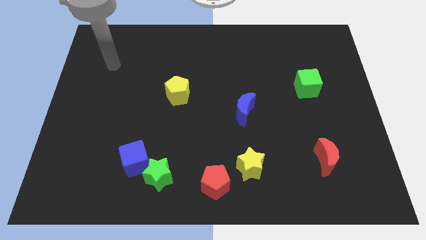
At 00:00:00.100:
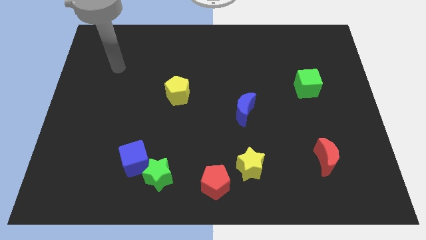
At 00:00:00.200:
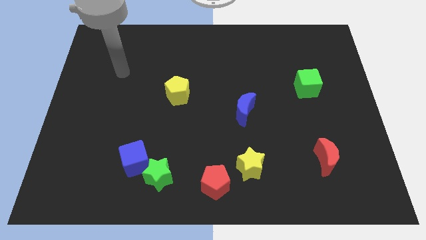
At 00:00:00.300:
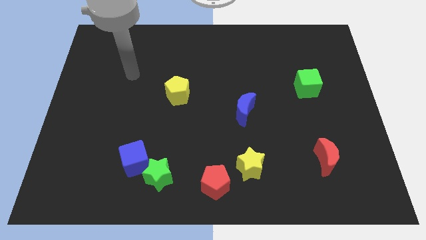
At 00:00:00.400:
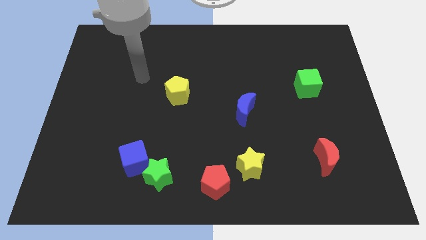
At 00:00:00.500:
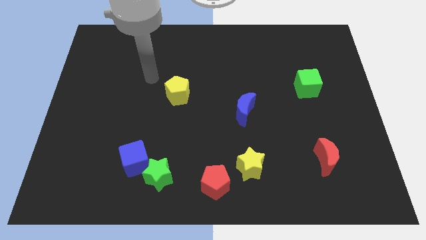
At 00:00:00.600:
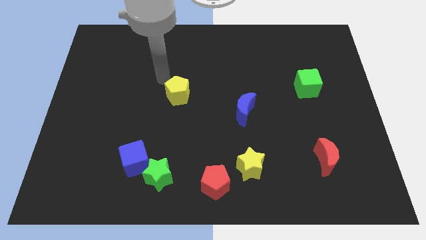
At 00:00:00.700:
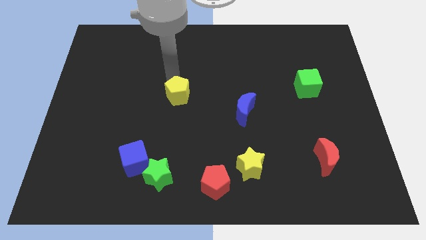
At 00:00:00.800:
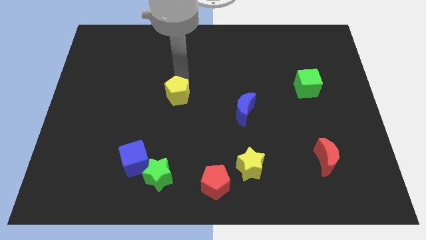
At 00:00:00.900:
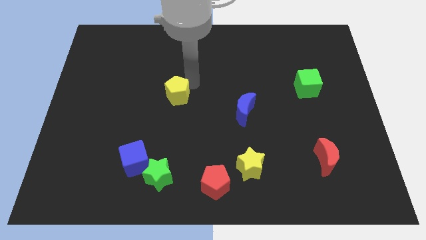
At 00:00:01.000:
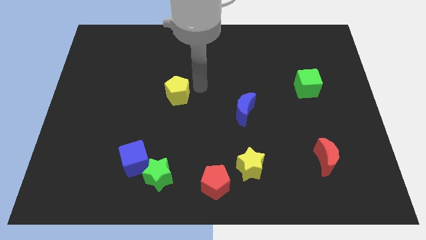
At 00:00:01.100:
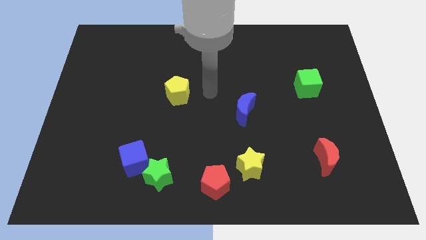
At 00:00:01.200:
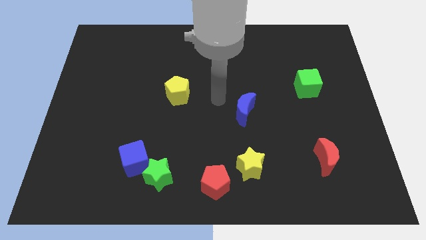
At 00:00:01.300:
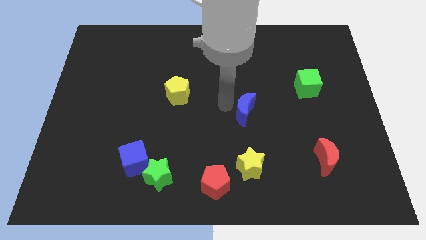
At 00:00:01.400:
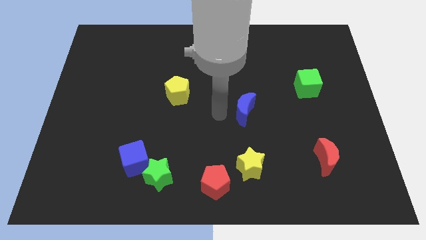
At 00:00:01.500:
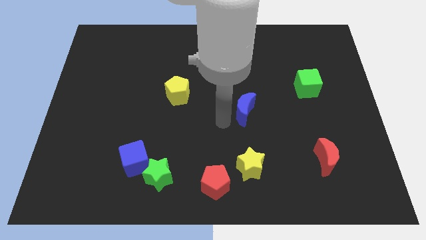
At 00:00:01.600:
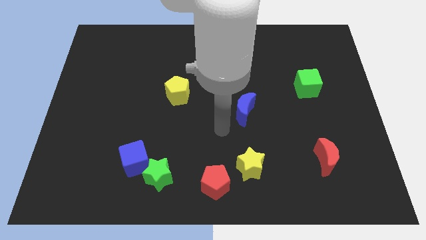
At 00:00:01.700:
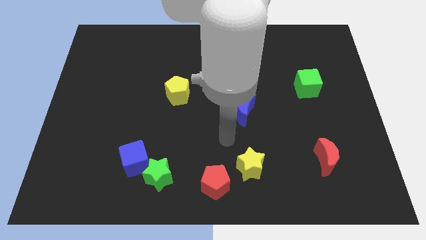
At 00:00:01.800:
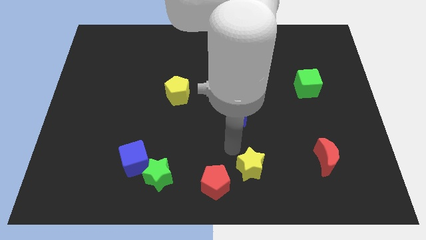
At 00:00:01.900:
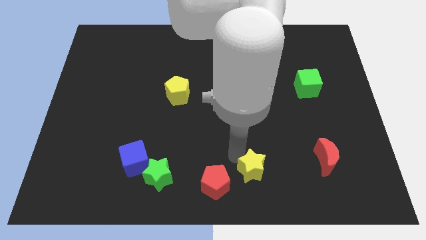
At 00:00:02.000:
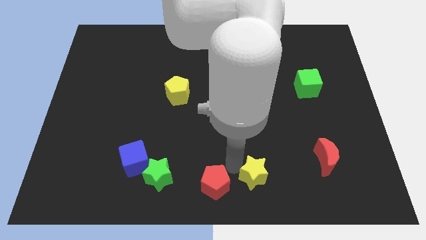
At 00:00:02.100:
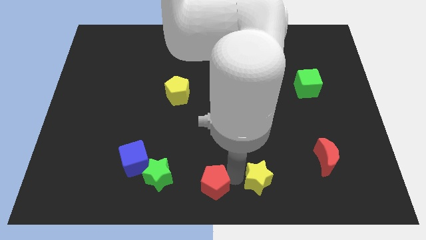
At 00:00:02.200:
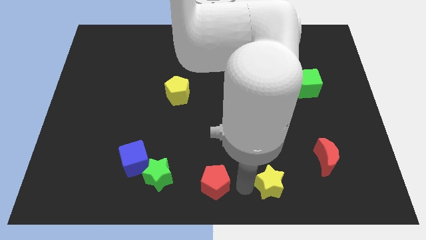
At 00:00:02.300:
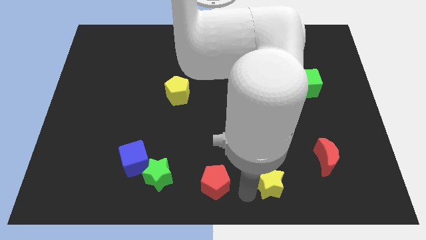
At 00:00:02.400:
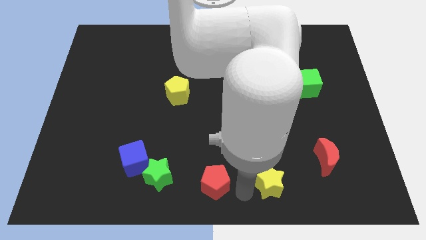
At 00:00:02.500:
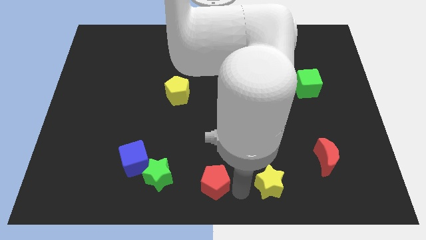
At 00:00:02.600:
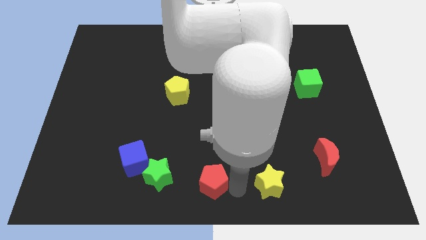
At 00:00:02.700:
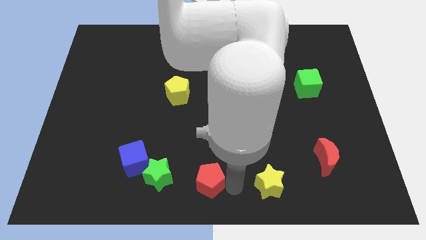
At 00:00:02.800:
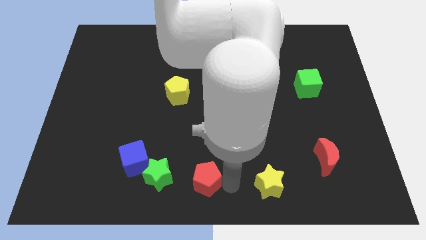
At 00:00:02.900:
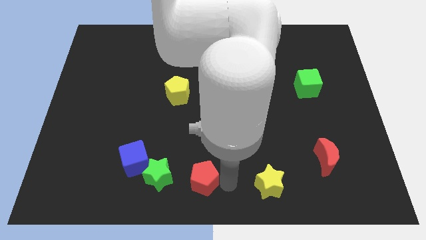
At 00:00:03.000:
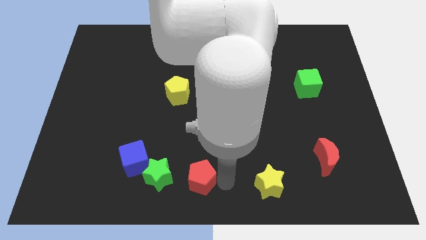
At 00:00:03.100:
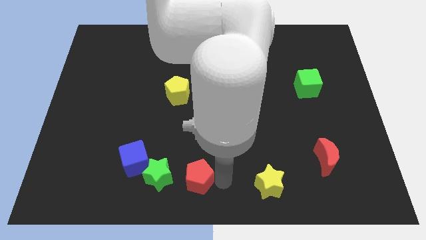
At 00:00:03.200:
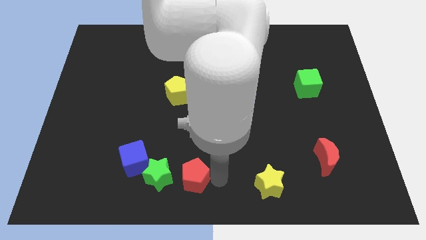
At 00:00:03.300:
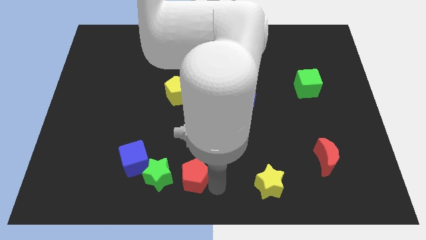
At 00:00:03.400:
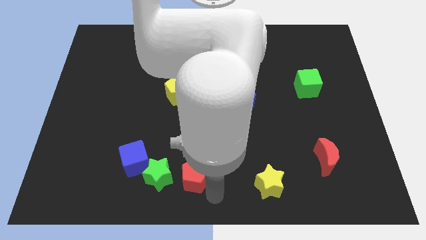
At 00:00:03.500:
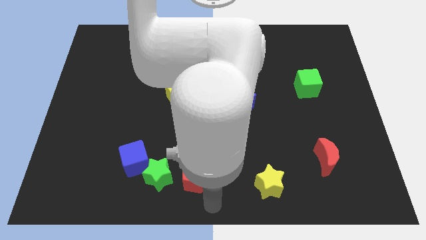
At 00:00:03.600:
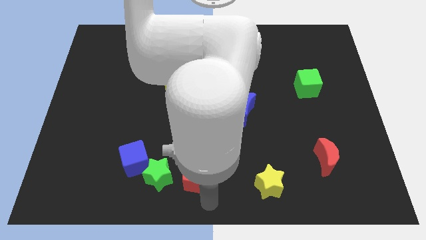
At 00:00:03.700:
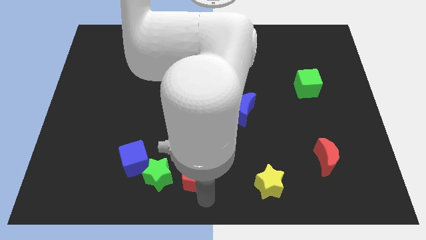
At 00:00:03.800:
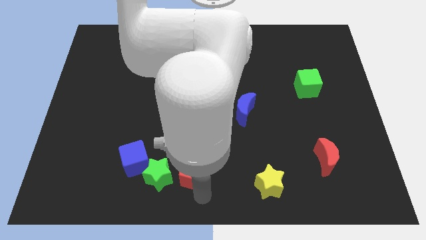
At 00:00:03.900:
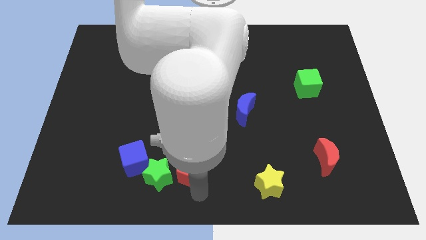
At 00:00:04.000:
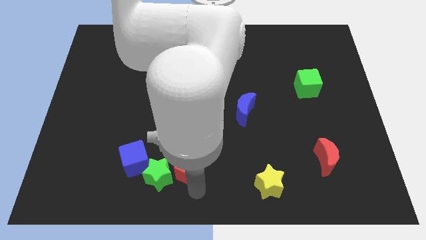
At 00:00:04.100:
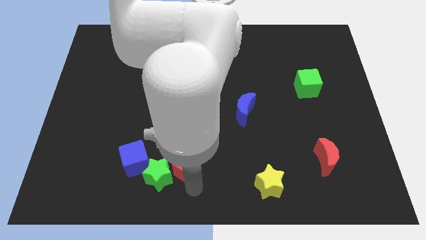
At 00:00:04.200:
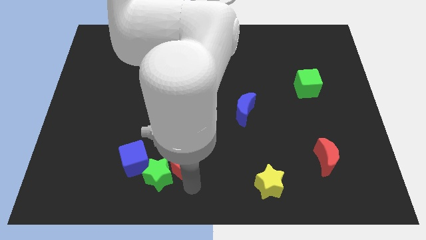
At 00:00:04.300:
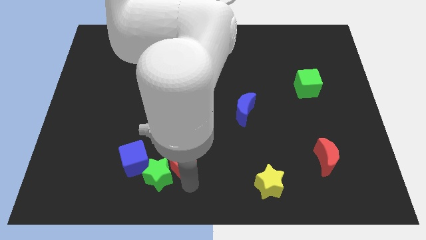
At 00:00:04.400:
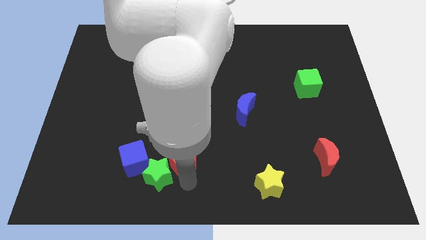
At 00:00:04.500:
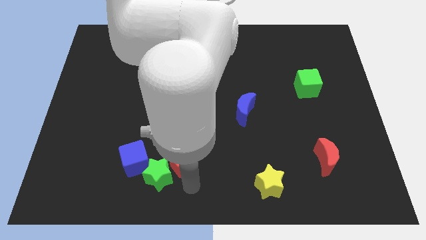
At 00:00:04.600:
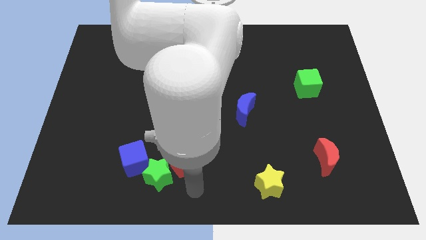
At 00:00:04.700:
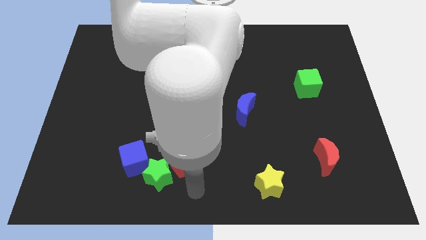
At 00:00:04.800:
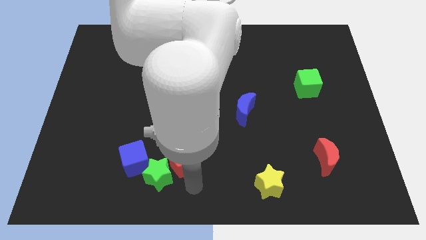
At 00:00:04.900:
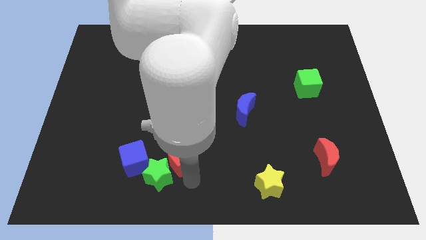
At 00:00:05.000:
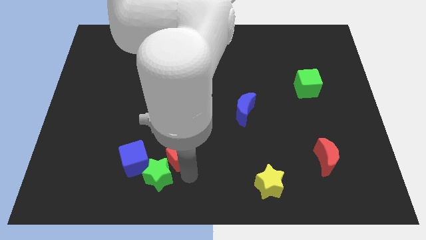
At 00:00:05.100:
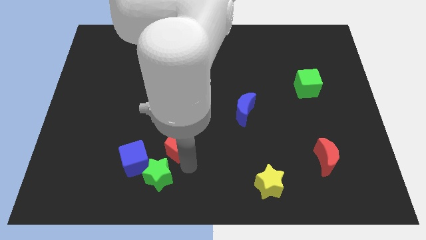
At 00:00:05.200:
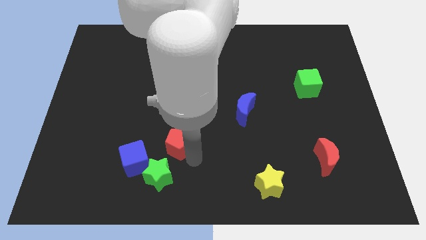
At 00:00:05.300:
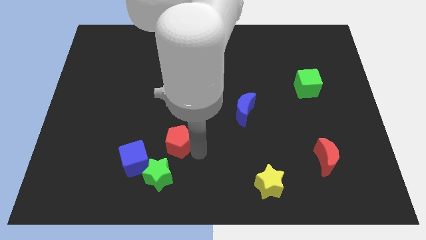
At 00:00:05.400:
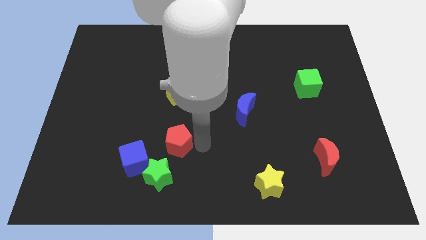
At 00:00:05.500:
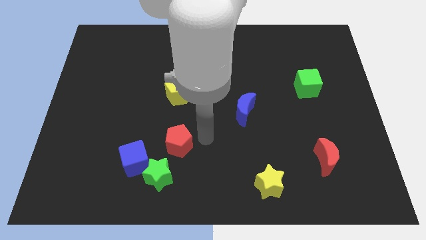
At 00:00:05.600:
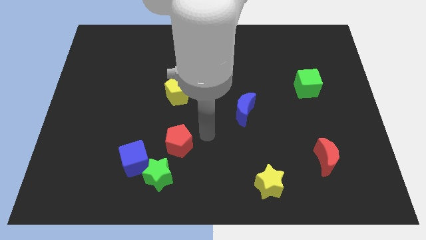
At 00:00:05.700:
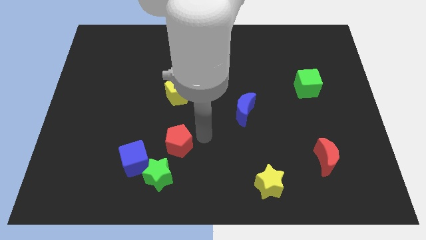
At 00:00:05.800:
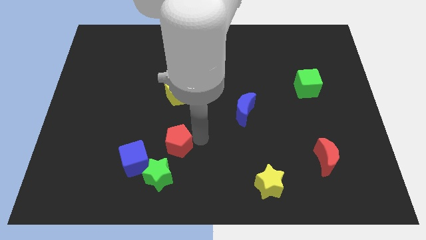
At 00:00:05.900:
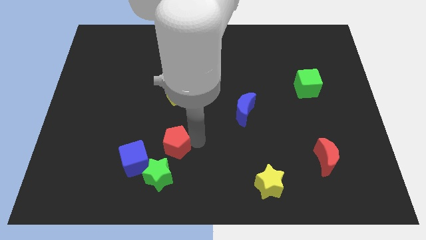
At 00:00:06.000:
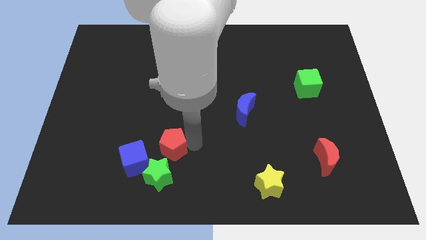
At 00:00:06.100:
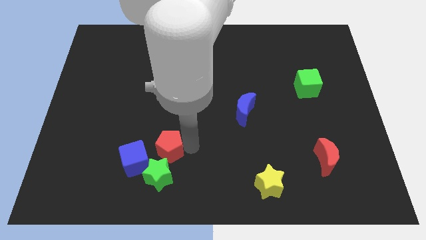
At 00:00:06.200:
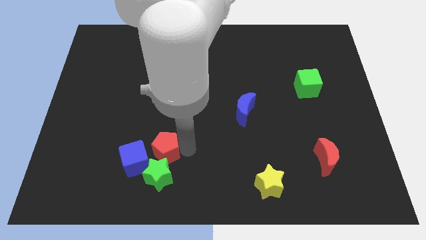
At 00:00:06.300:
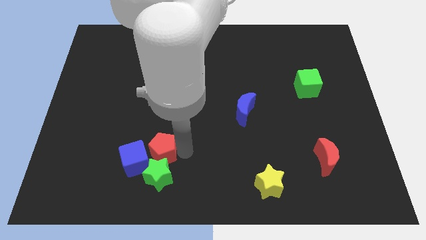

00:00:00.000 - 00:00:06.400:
move the red pentagon close to the blue cube
